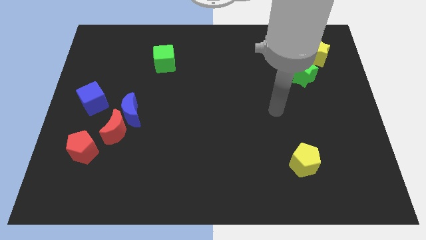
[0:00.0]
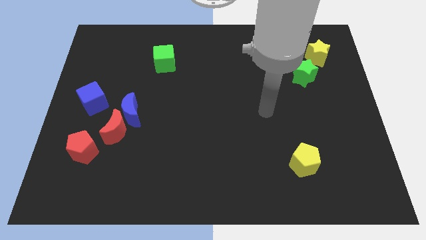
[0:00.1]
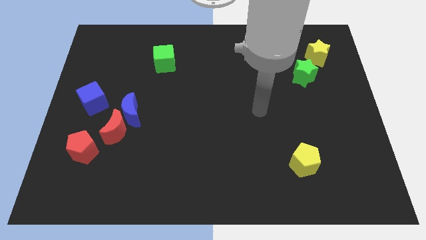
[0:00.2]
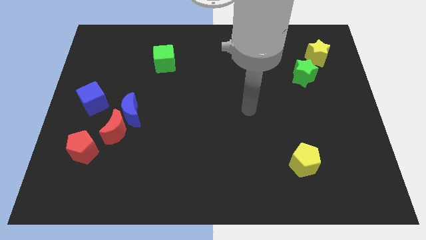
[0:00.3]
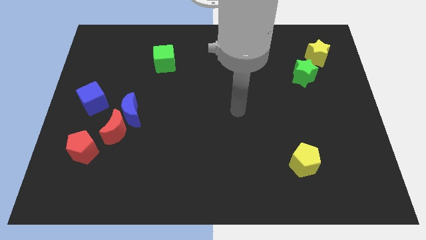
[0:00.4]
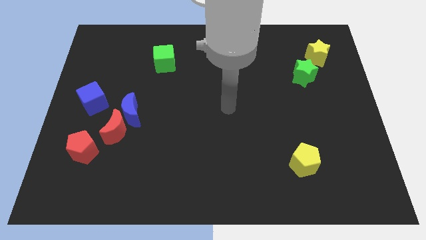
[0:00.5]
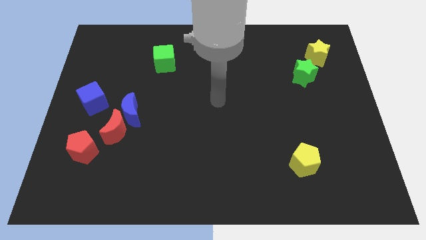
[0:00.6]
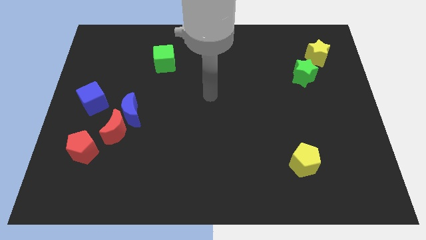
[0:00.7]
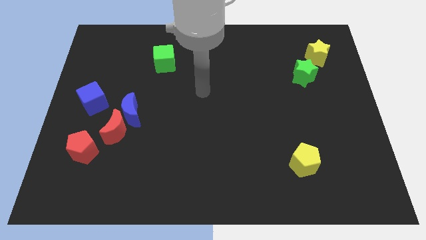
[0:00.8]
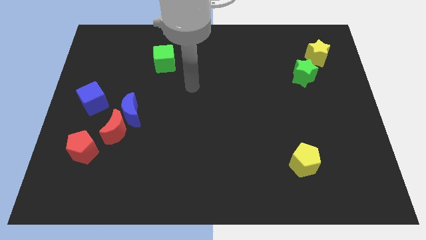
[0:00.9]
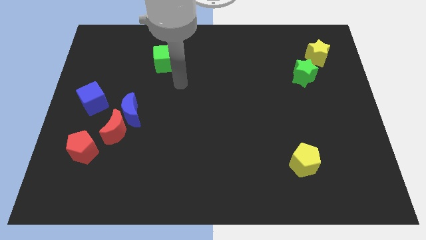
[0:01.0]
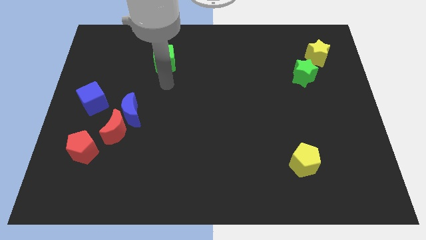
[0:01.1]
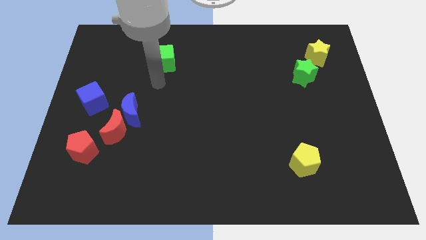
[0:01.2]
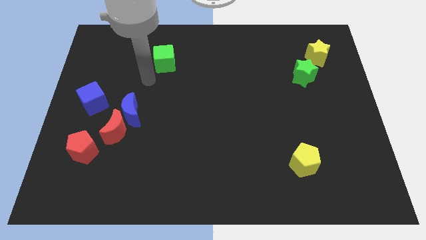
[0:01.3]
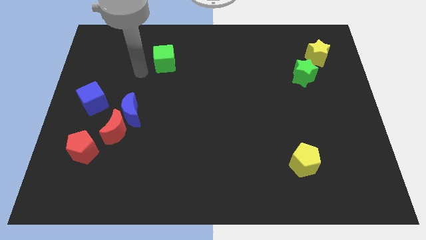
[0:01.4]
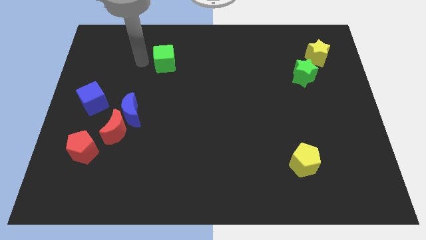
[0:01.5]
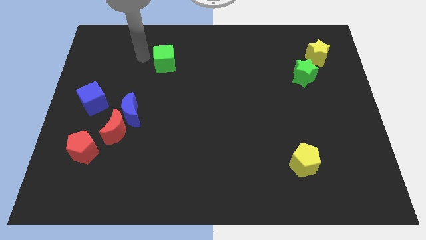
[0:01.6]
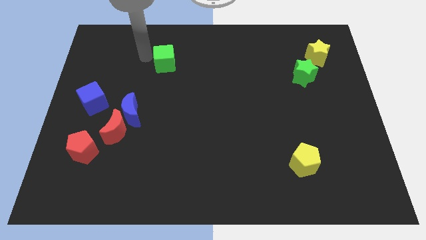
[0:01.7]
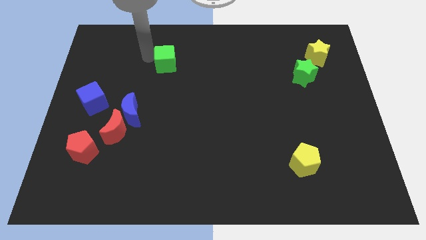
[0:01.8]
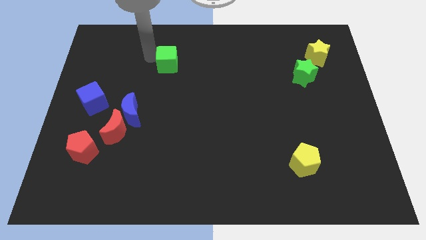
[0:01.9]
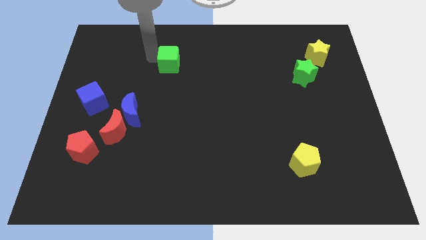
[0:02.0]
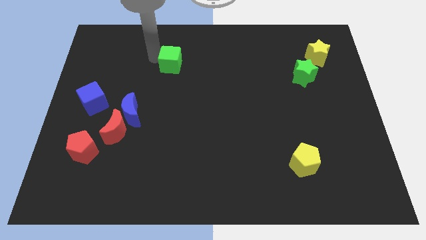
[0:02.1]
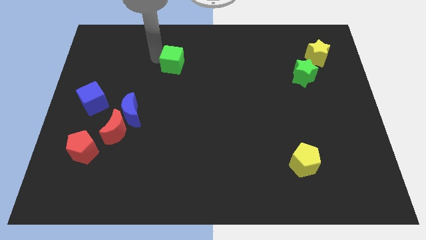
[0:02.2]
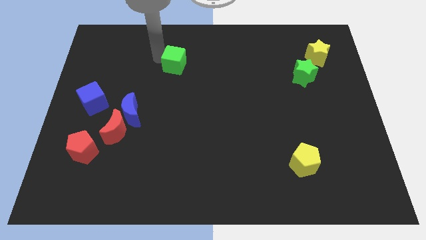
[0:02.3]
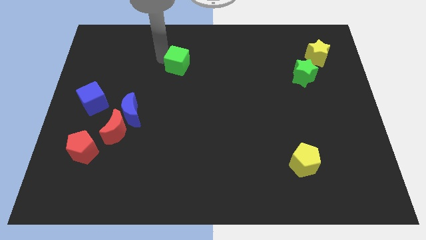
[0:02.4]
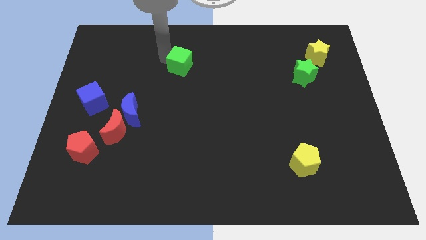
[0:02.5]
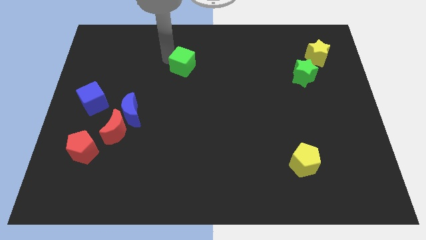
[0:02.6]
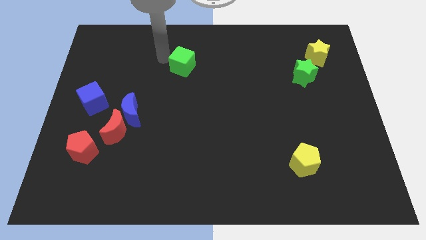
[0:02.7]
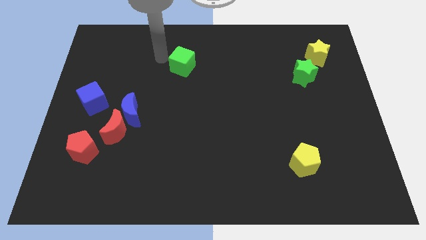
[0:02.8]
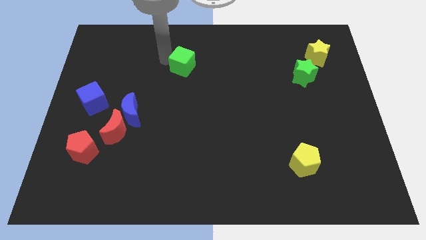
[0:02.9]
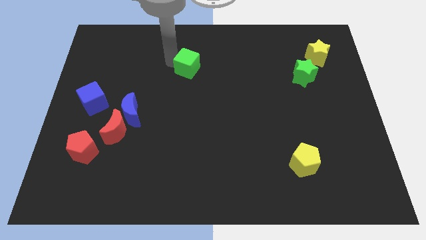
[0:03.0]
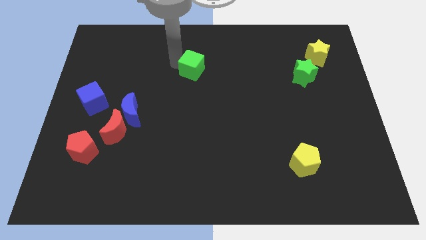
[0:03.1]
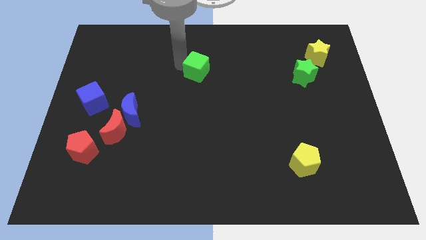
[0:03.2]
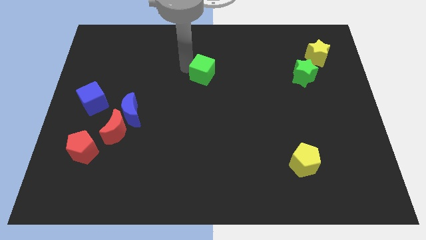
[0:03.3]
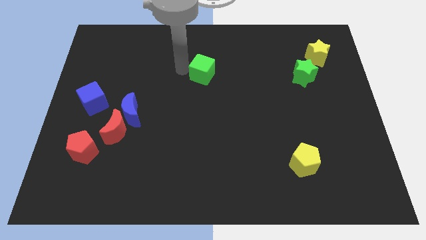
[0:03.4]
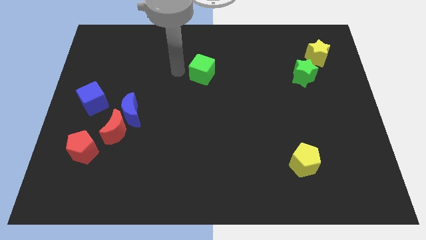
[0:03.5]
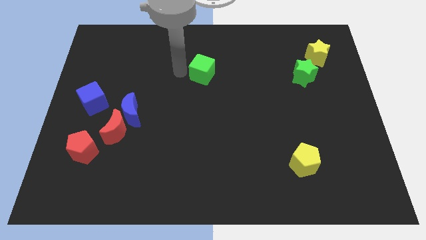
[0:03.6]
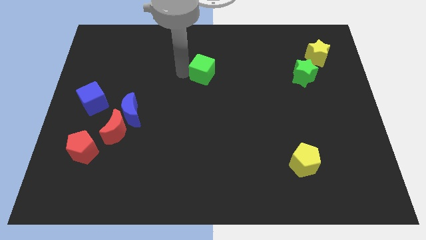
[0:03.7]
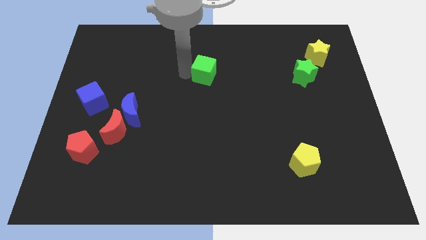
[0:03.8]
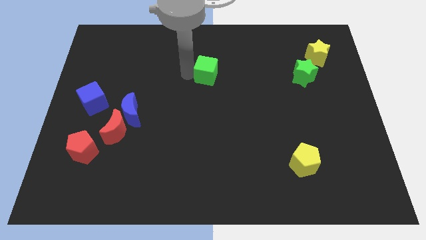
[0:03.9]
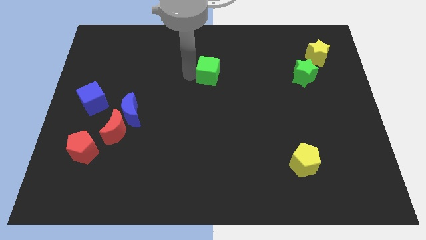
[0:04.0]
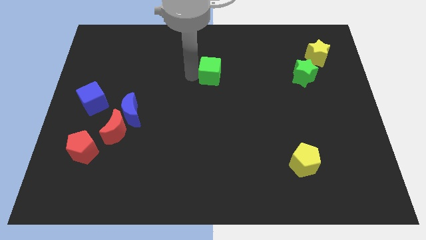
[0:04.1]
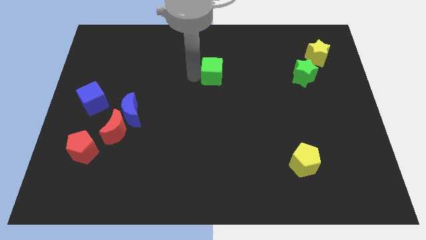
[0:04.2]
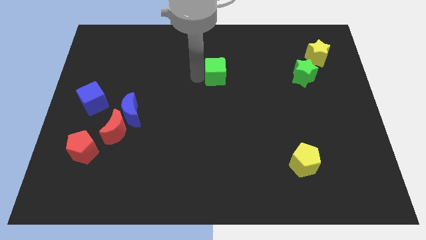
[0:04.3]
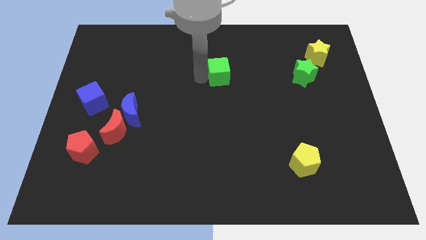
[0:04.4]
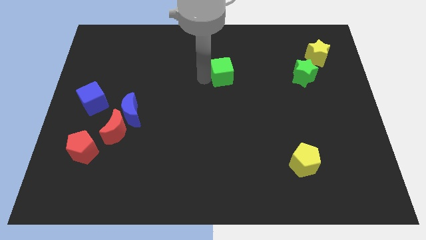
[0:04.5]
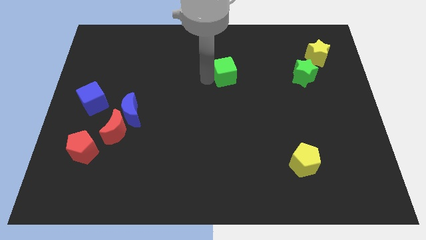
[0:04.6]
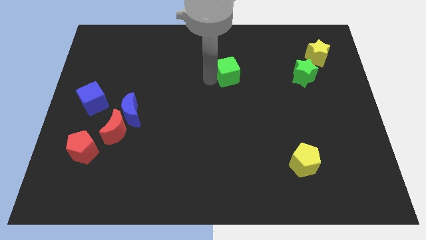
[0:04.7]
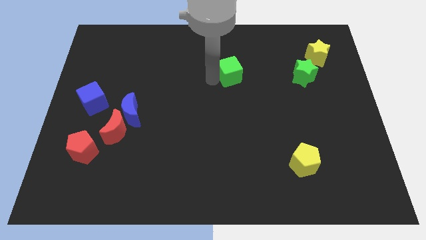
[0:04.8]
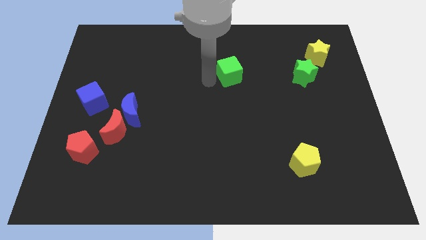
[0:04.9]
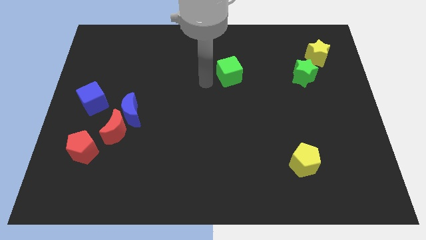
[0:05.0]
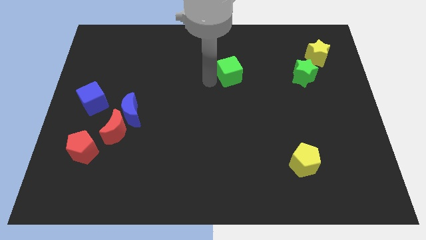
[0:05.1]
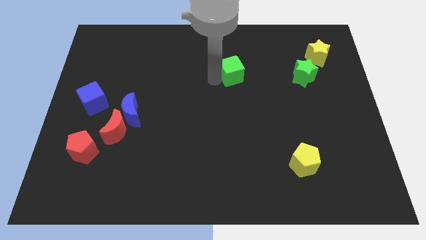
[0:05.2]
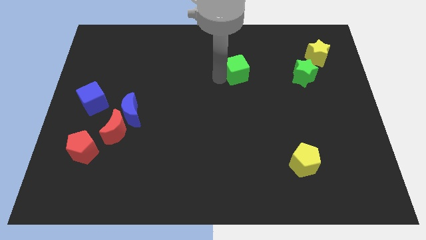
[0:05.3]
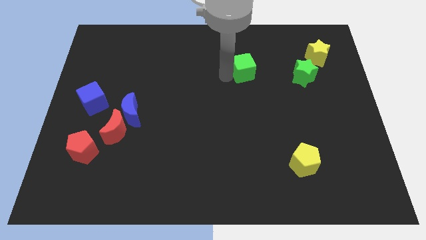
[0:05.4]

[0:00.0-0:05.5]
push the green cube to the right

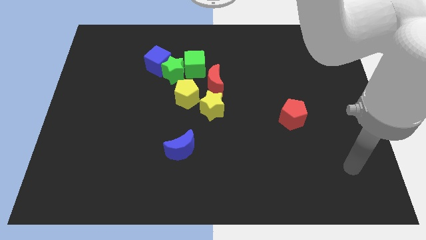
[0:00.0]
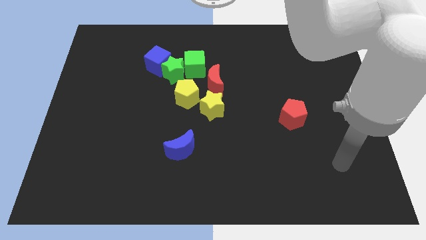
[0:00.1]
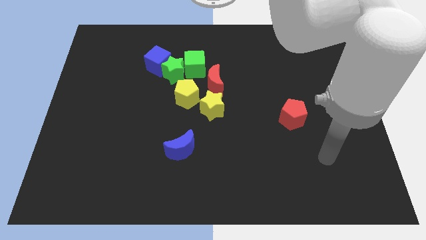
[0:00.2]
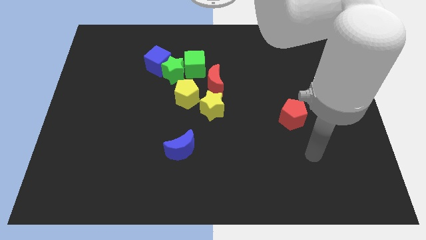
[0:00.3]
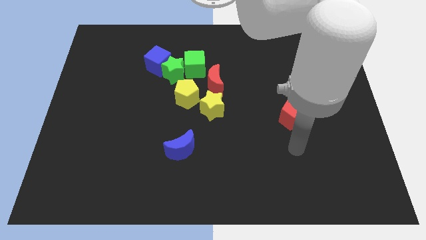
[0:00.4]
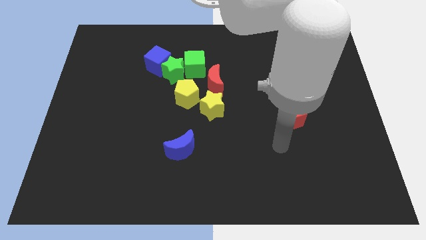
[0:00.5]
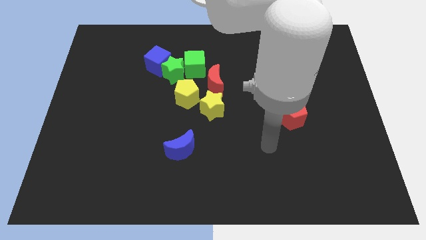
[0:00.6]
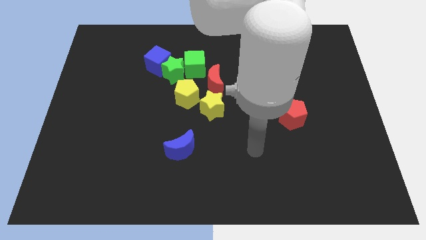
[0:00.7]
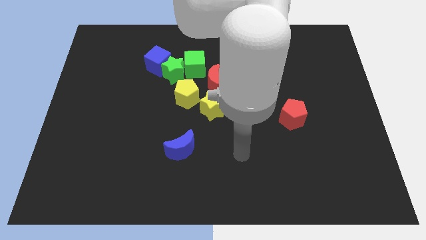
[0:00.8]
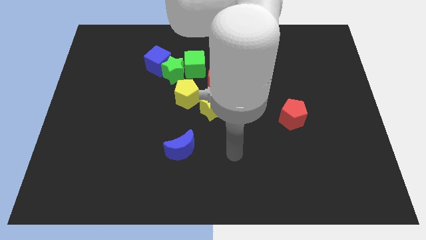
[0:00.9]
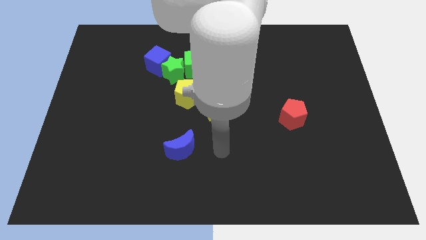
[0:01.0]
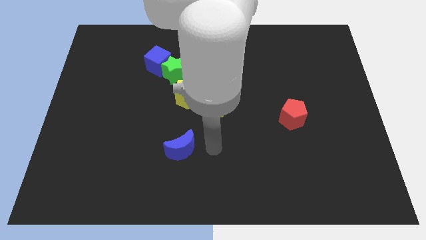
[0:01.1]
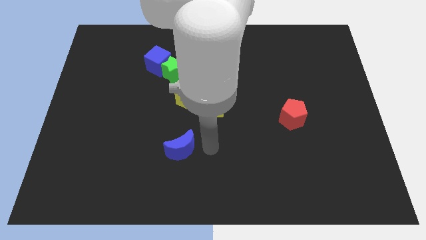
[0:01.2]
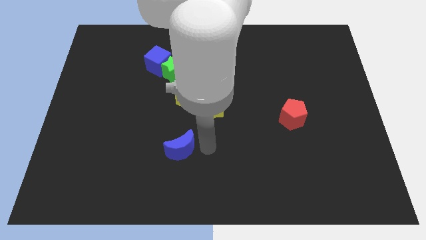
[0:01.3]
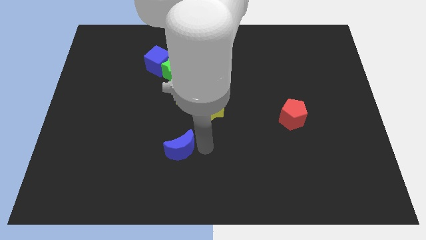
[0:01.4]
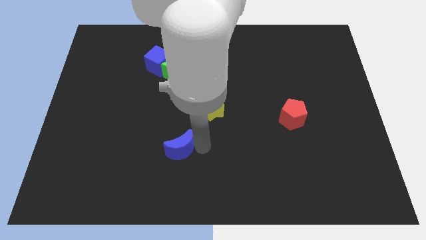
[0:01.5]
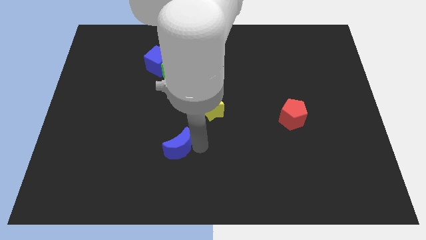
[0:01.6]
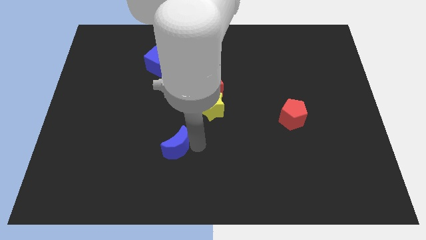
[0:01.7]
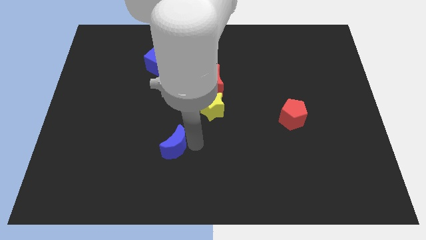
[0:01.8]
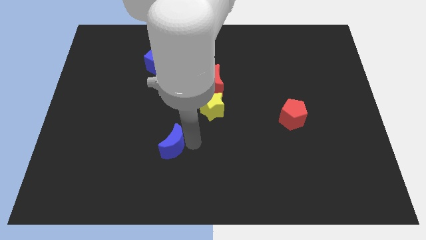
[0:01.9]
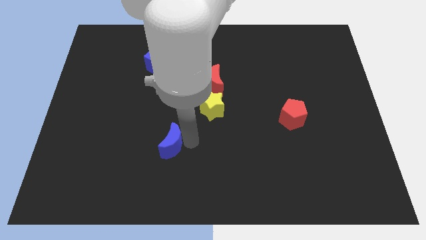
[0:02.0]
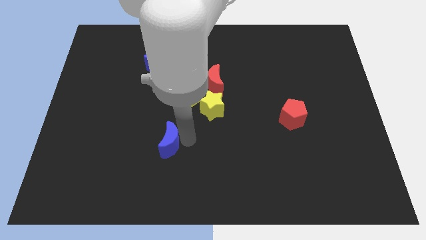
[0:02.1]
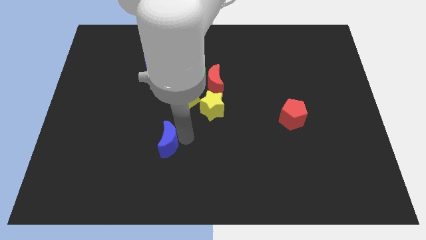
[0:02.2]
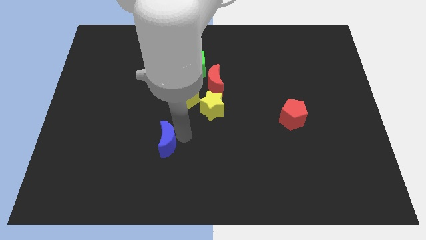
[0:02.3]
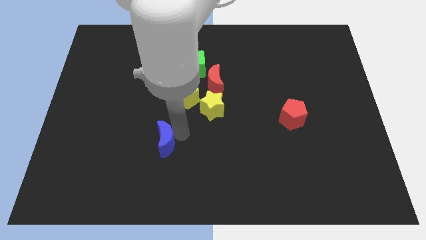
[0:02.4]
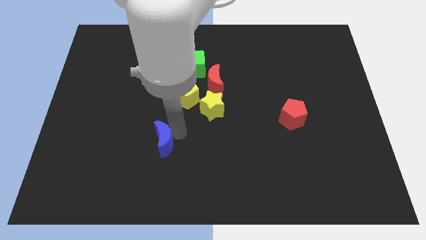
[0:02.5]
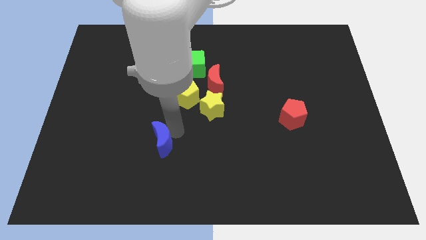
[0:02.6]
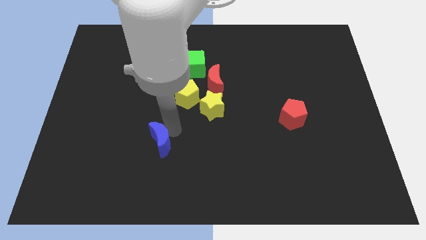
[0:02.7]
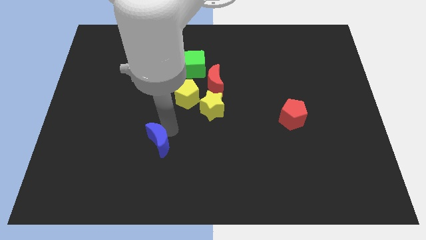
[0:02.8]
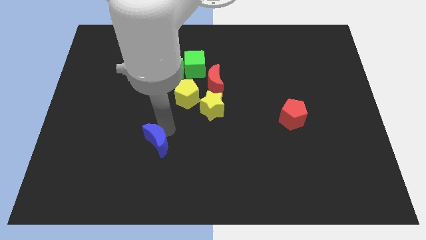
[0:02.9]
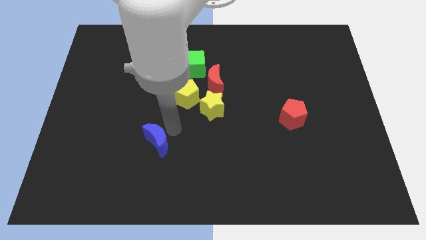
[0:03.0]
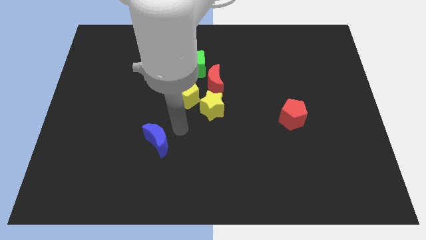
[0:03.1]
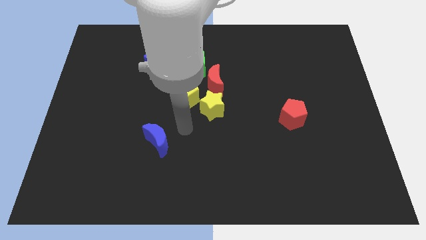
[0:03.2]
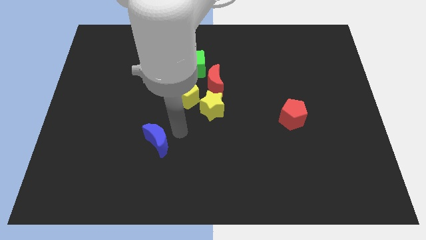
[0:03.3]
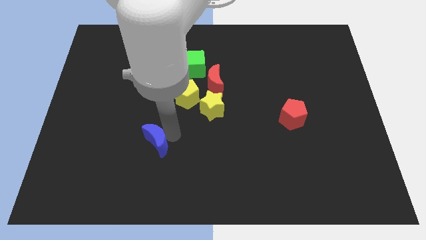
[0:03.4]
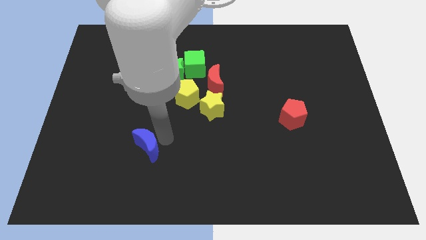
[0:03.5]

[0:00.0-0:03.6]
push the blue moon to the left a bit
